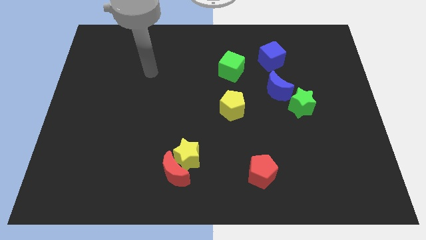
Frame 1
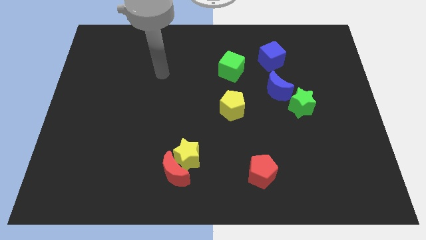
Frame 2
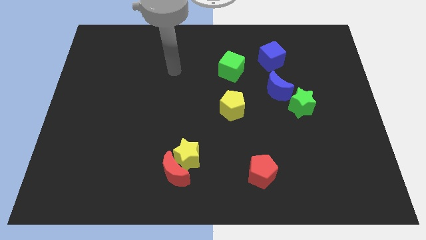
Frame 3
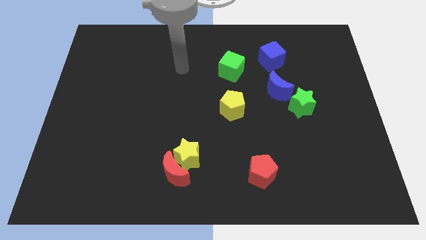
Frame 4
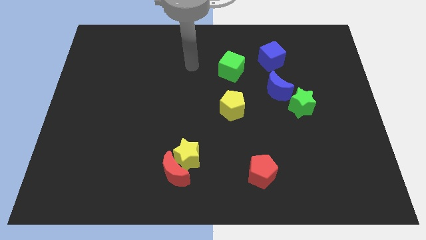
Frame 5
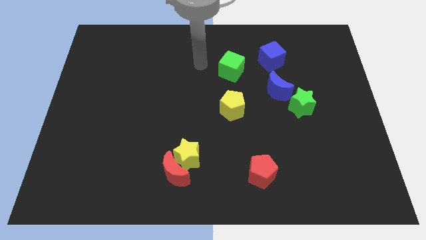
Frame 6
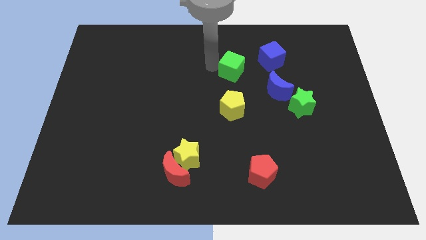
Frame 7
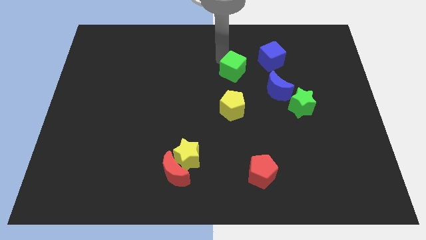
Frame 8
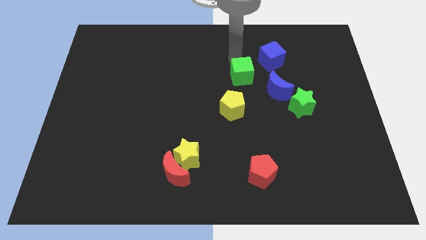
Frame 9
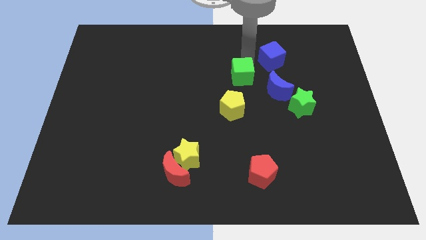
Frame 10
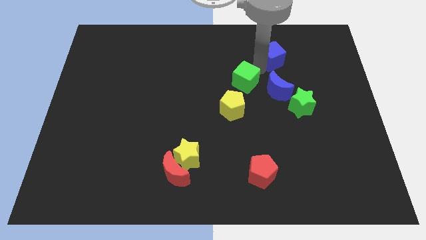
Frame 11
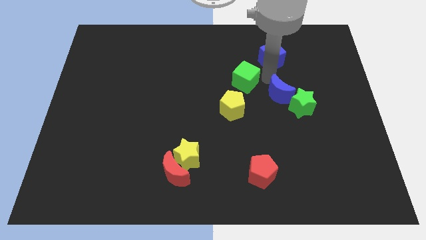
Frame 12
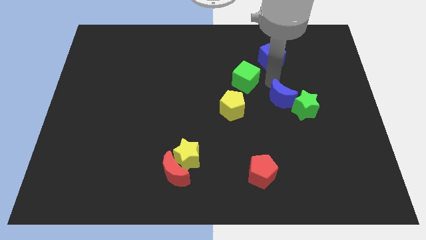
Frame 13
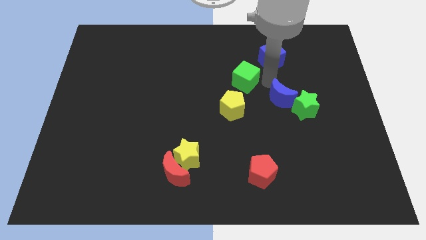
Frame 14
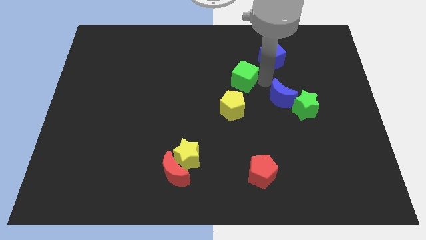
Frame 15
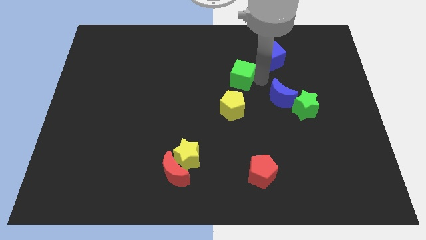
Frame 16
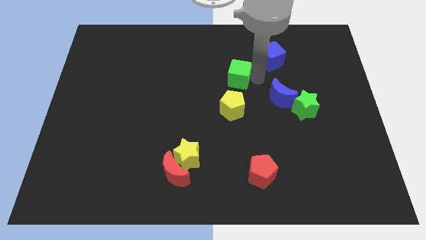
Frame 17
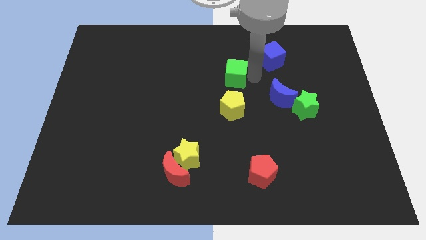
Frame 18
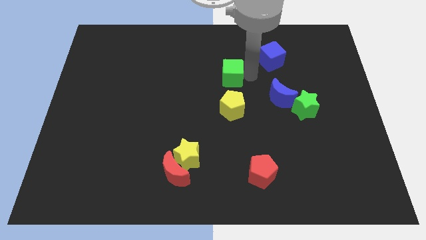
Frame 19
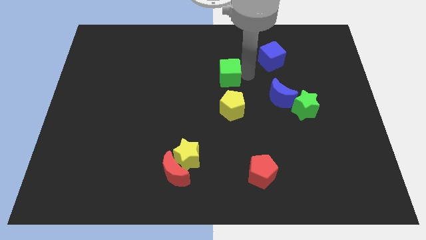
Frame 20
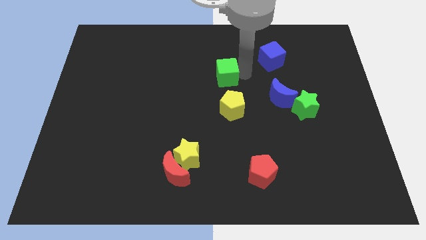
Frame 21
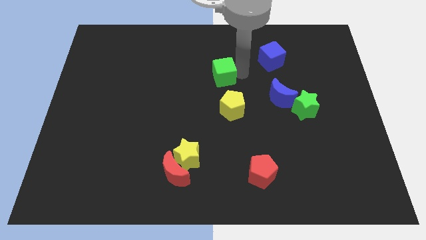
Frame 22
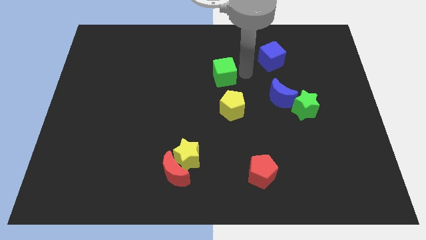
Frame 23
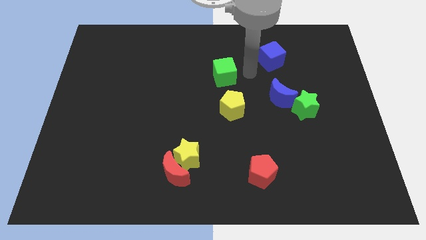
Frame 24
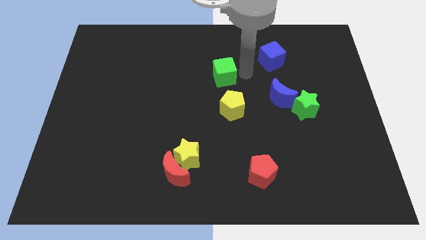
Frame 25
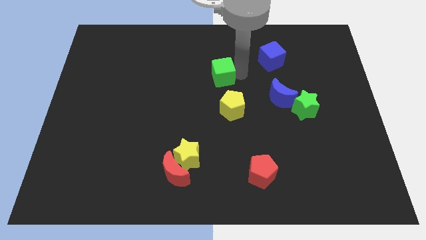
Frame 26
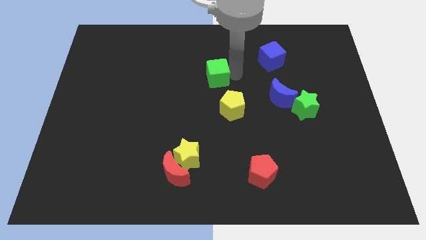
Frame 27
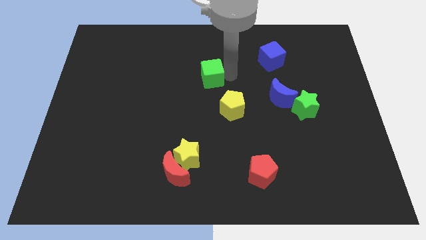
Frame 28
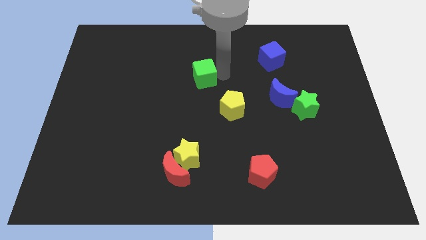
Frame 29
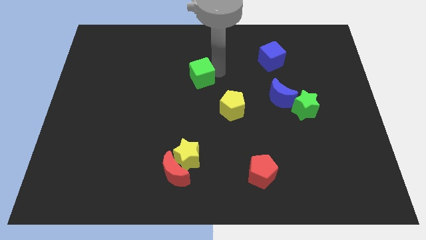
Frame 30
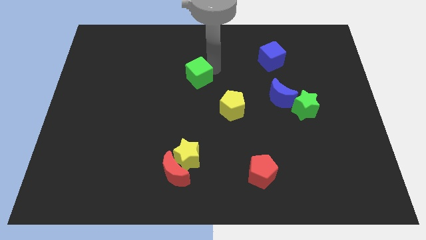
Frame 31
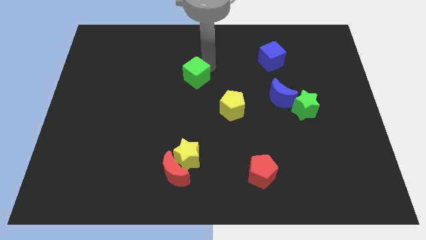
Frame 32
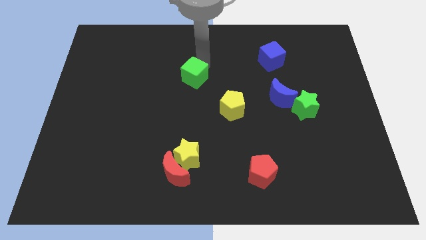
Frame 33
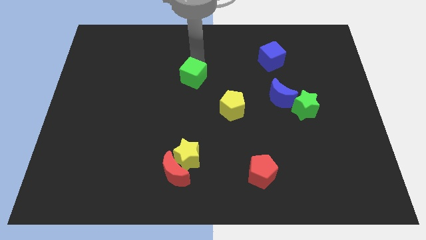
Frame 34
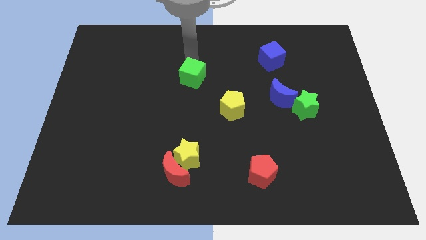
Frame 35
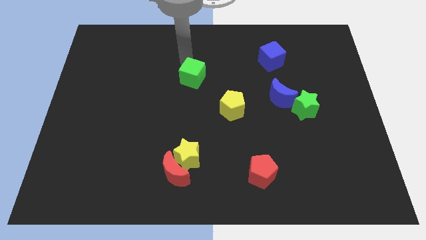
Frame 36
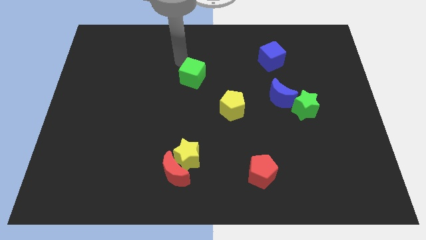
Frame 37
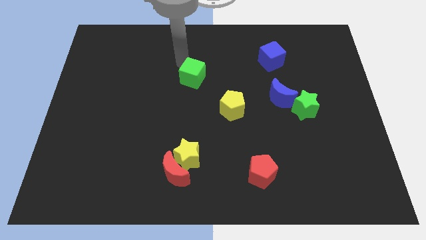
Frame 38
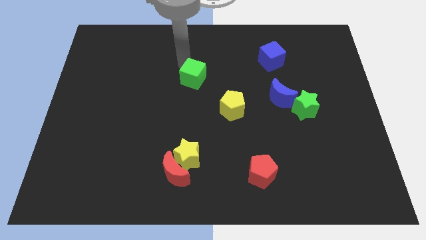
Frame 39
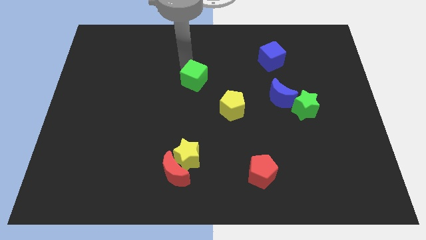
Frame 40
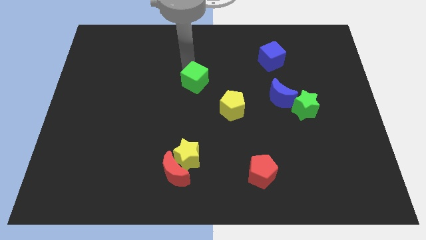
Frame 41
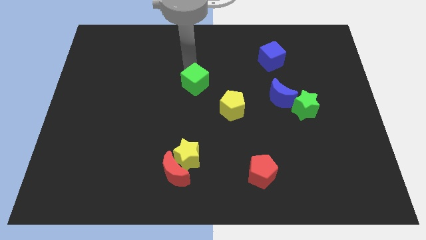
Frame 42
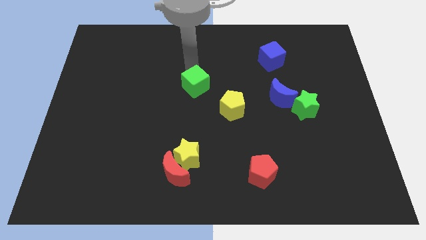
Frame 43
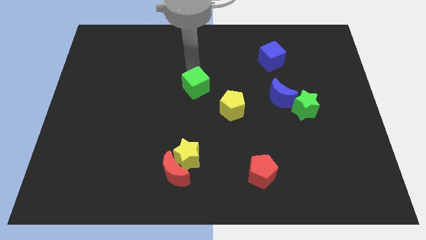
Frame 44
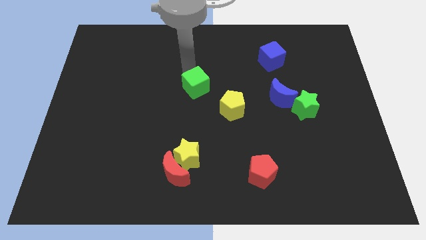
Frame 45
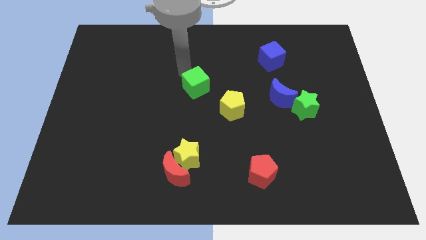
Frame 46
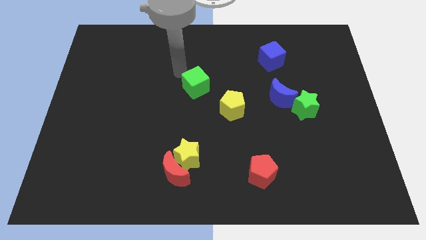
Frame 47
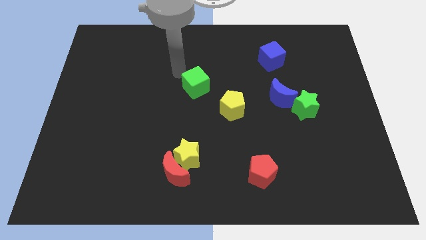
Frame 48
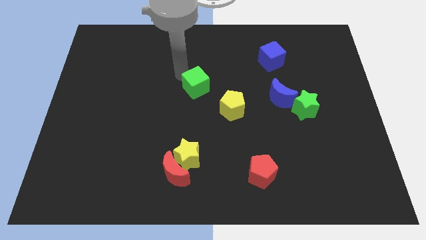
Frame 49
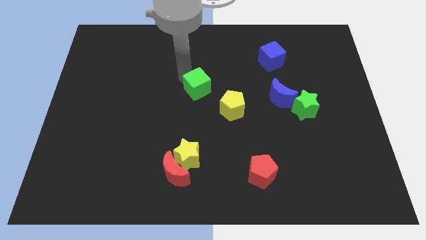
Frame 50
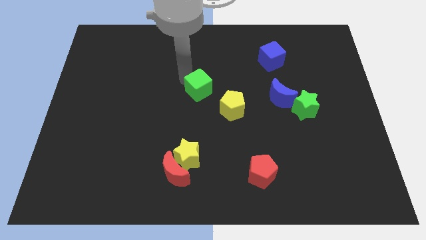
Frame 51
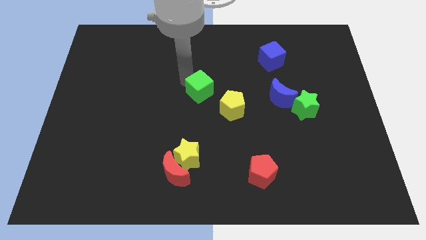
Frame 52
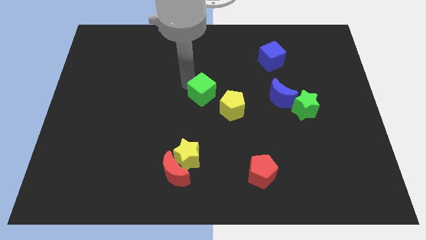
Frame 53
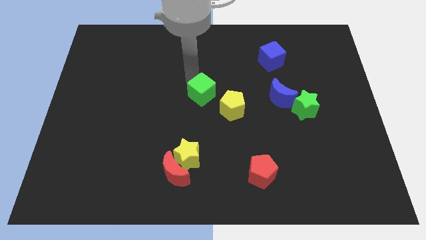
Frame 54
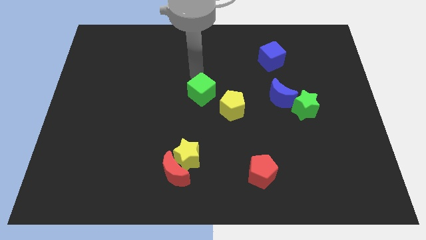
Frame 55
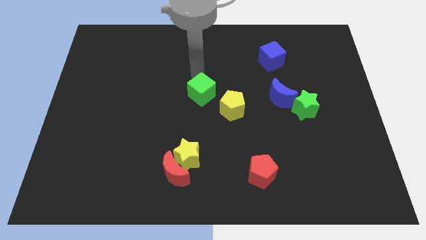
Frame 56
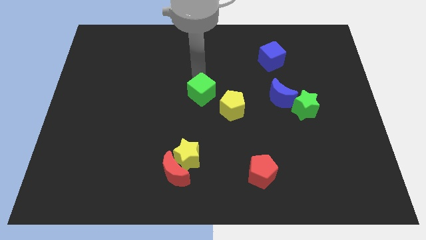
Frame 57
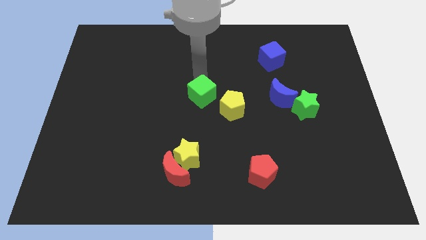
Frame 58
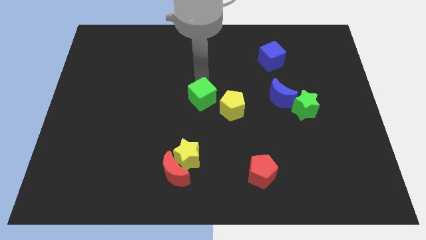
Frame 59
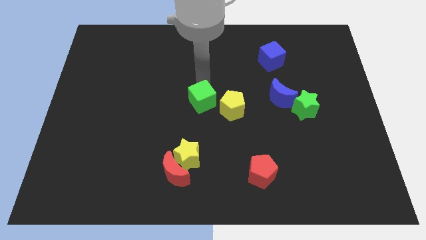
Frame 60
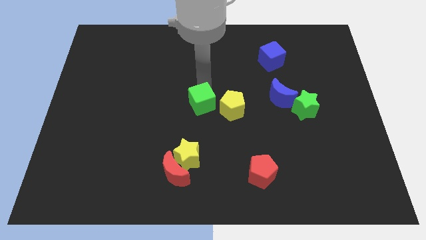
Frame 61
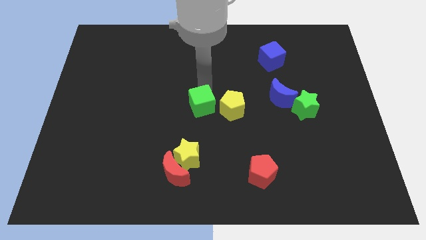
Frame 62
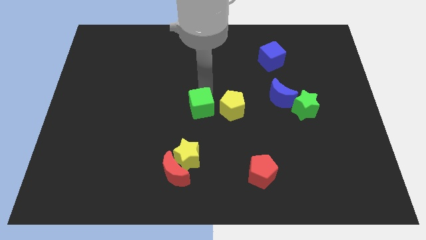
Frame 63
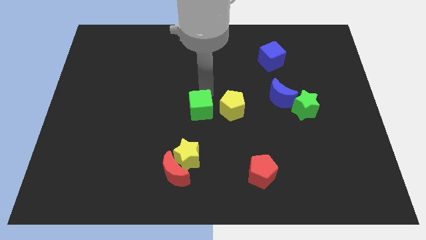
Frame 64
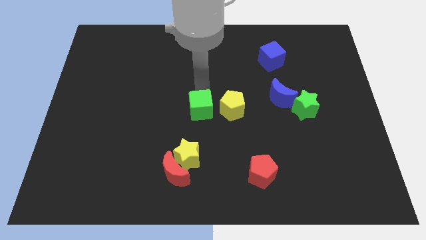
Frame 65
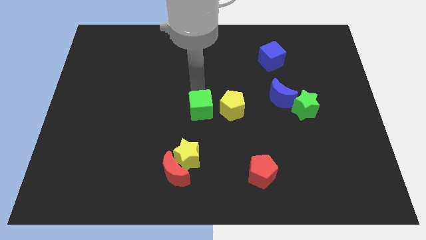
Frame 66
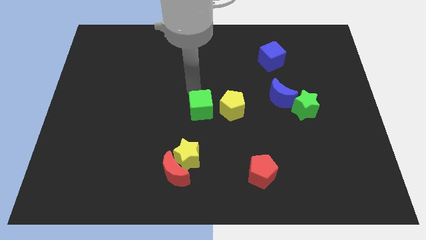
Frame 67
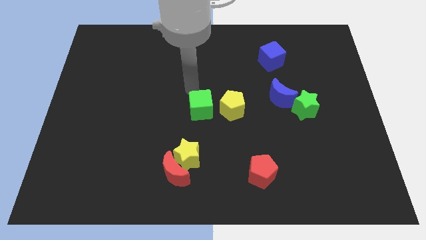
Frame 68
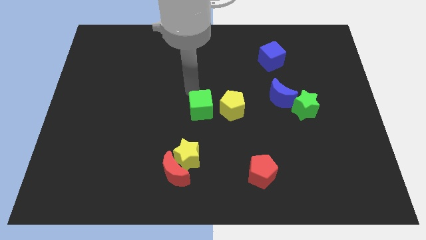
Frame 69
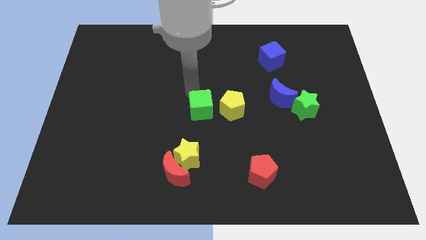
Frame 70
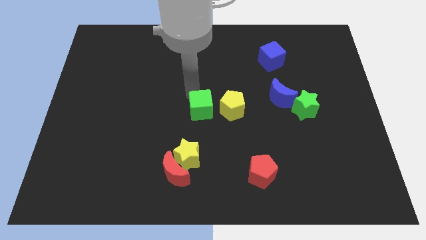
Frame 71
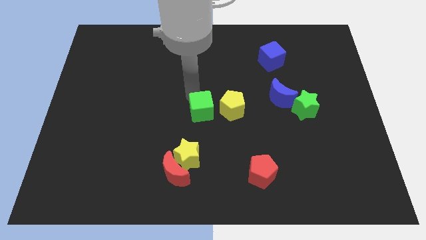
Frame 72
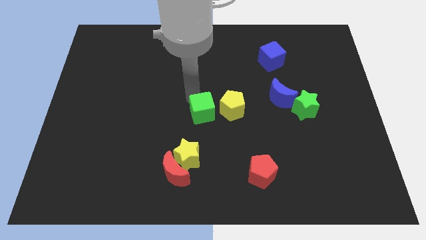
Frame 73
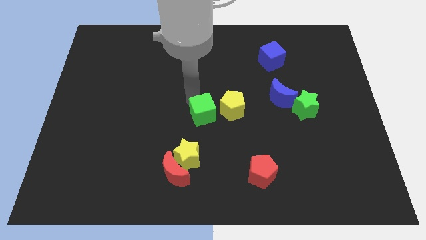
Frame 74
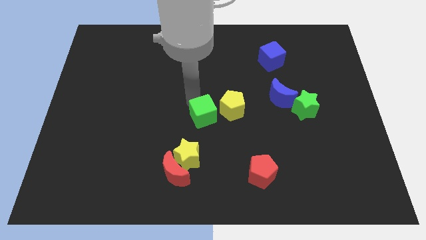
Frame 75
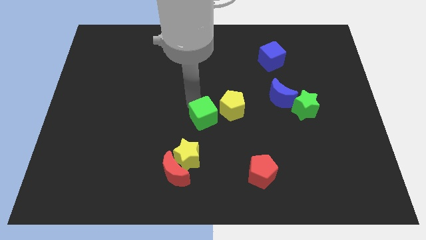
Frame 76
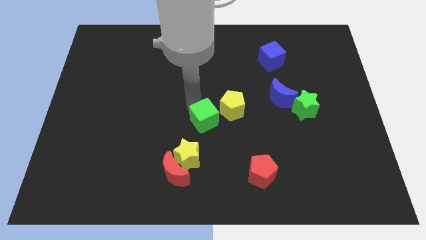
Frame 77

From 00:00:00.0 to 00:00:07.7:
push the green cube diagonally up and to the right of the yellow star
